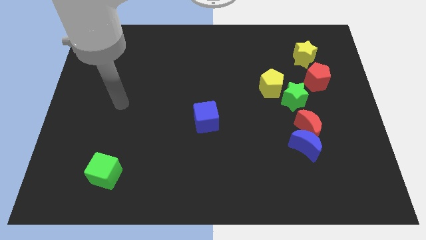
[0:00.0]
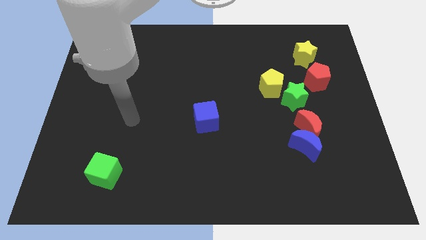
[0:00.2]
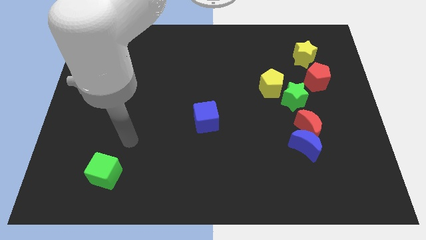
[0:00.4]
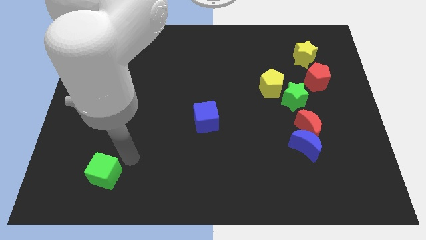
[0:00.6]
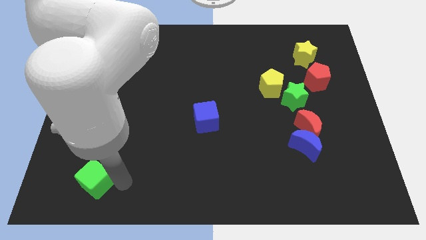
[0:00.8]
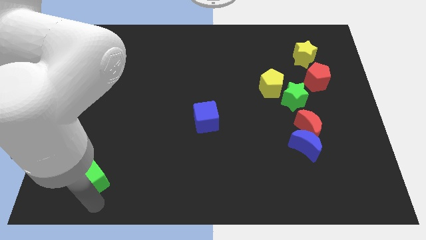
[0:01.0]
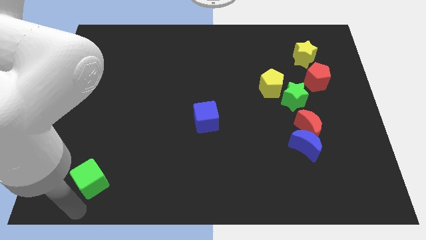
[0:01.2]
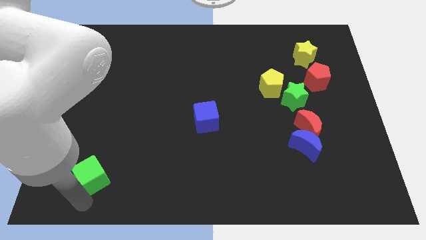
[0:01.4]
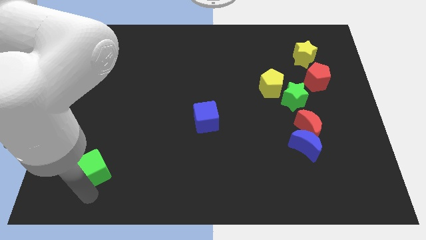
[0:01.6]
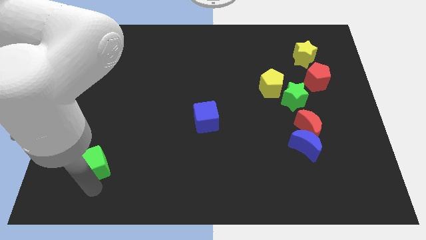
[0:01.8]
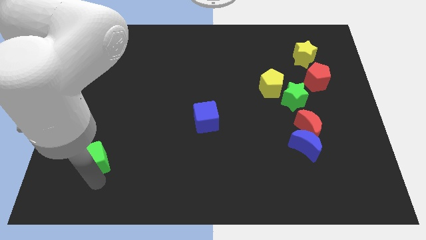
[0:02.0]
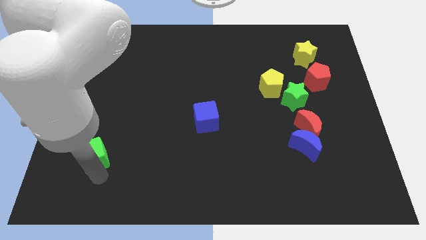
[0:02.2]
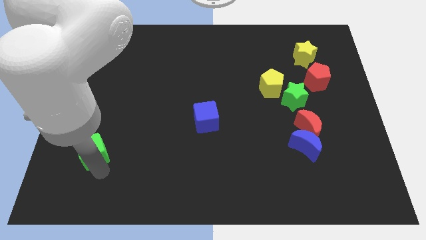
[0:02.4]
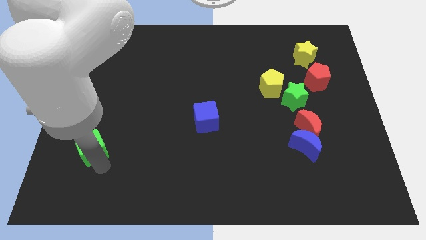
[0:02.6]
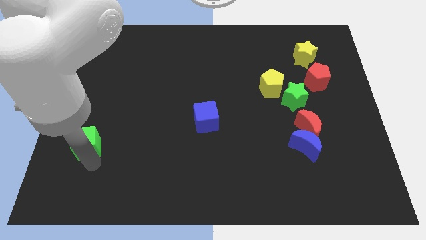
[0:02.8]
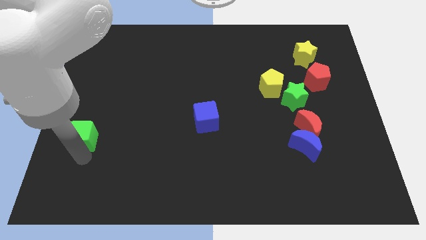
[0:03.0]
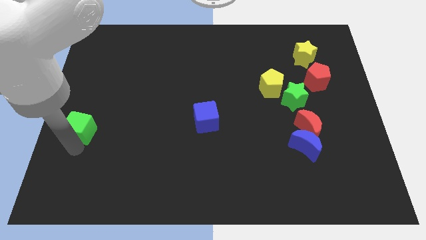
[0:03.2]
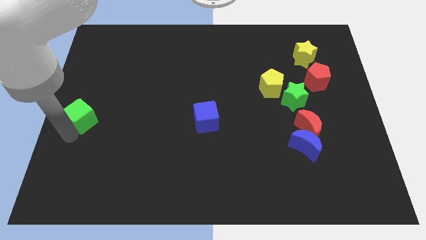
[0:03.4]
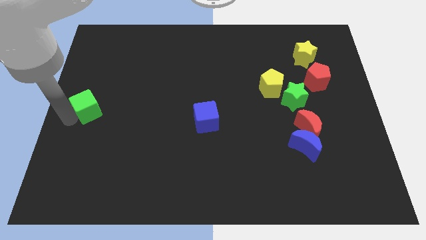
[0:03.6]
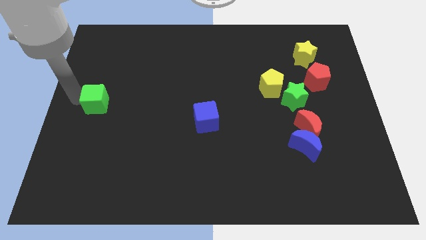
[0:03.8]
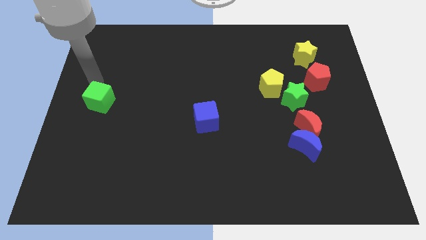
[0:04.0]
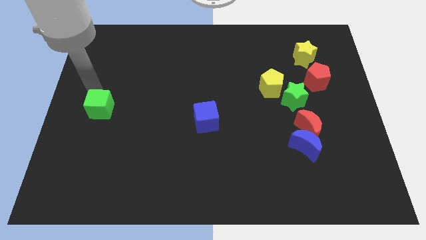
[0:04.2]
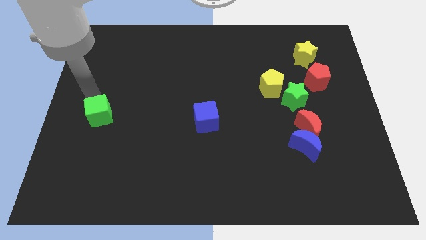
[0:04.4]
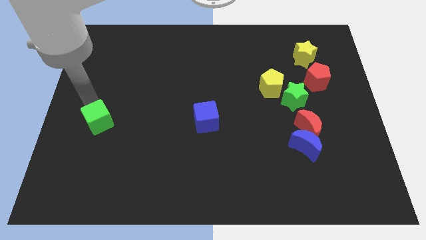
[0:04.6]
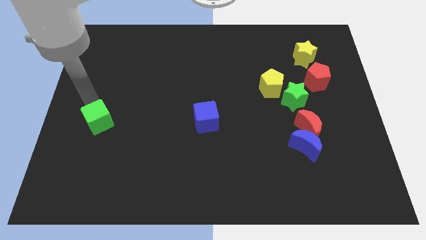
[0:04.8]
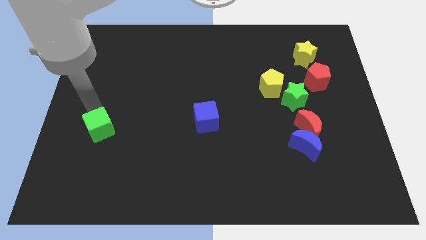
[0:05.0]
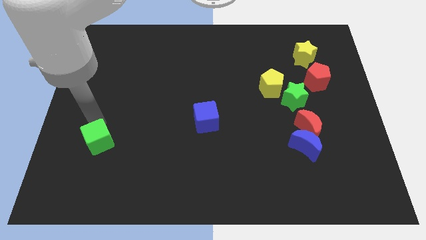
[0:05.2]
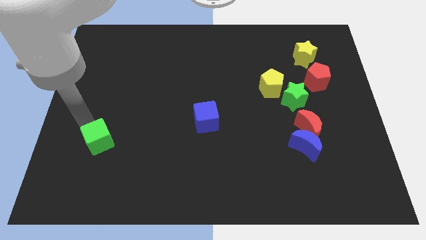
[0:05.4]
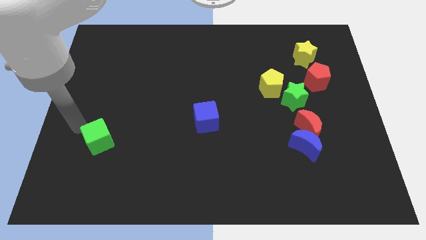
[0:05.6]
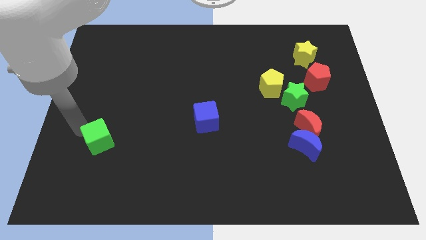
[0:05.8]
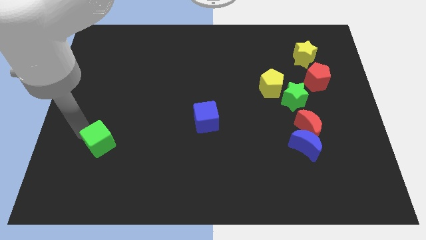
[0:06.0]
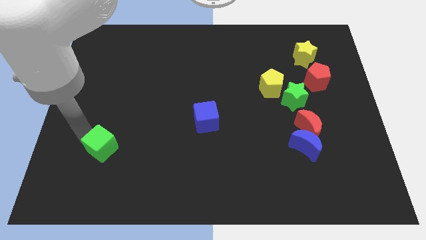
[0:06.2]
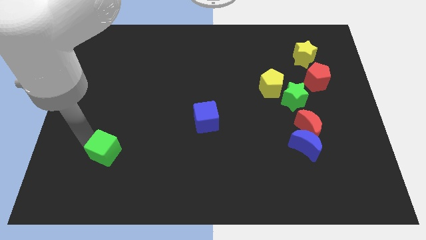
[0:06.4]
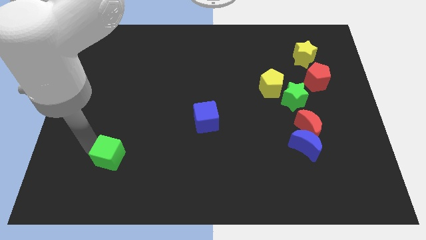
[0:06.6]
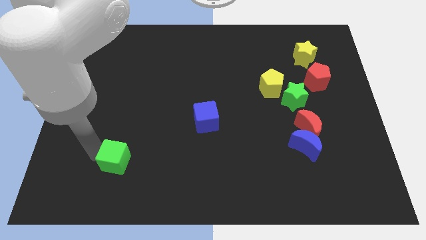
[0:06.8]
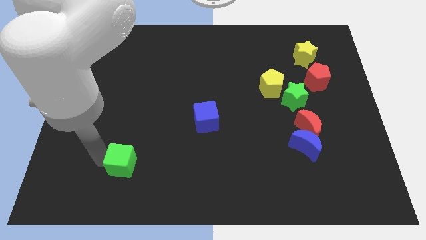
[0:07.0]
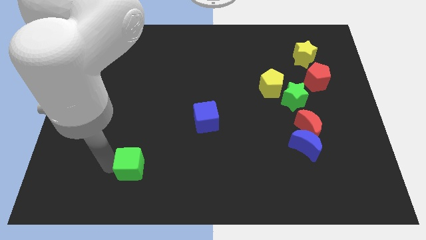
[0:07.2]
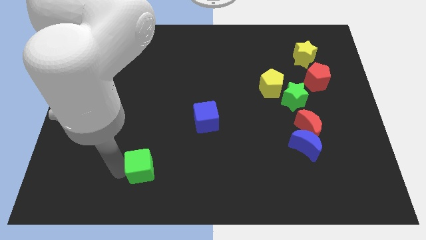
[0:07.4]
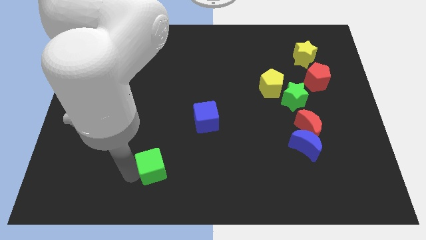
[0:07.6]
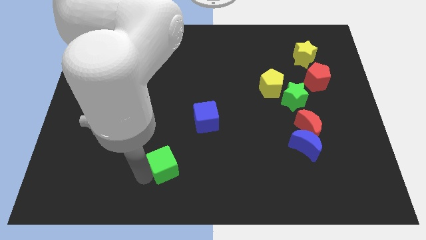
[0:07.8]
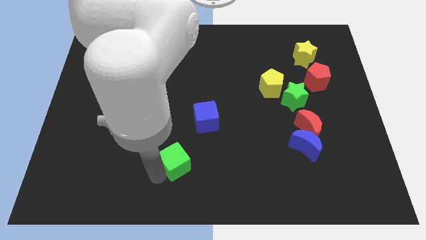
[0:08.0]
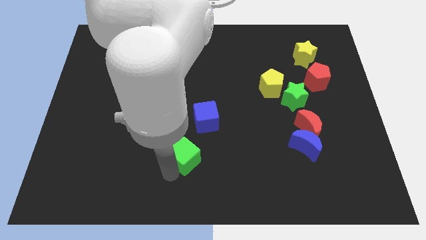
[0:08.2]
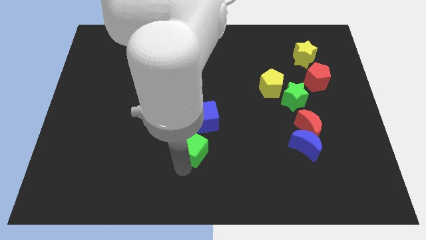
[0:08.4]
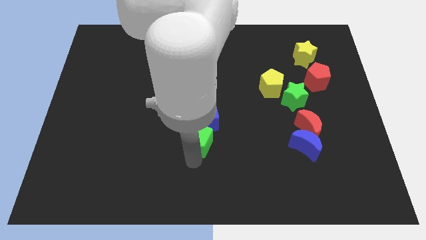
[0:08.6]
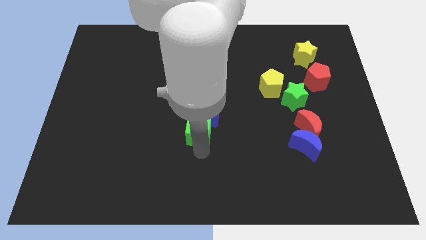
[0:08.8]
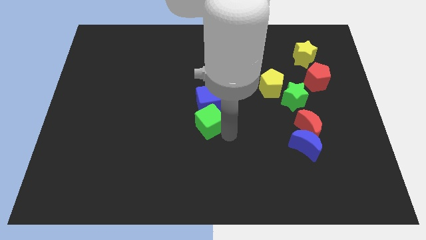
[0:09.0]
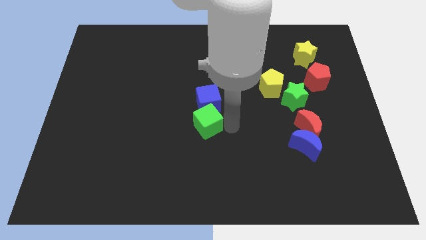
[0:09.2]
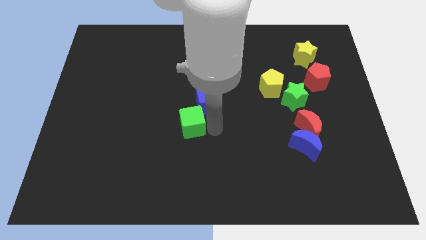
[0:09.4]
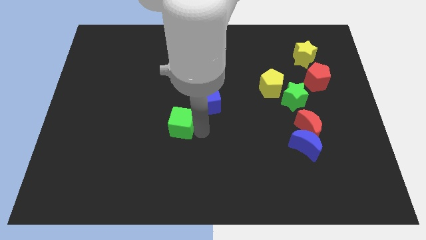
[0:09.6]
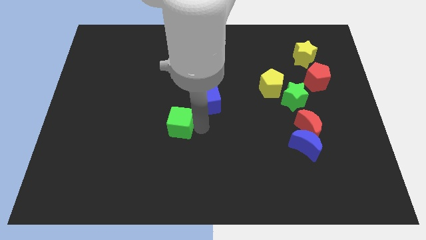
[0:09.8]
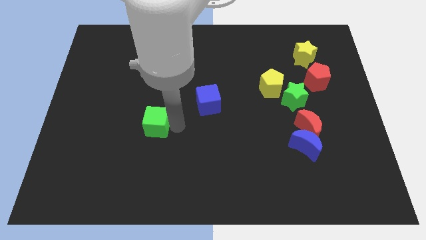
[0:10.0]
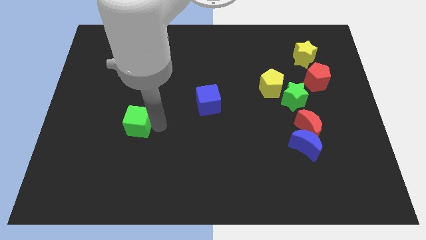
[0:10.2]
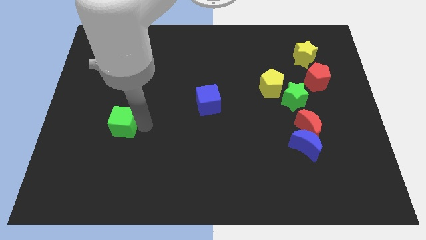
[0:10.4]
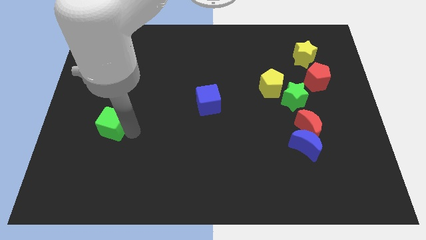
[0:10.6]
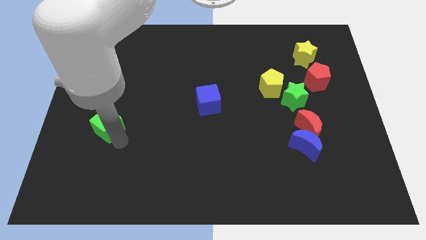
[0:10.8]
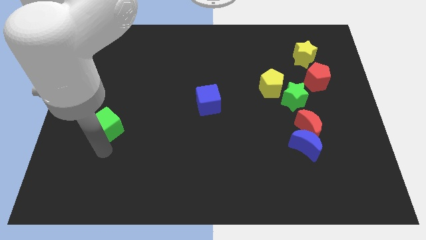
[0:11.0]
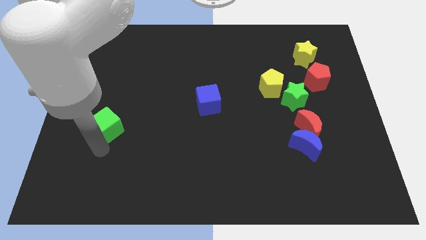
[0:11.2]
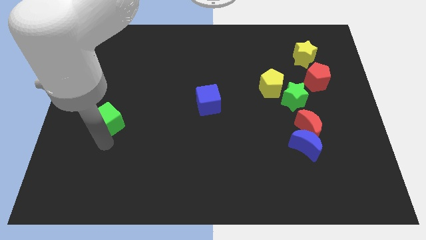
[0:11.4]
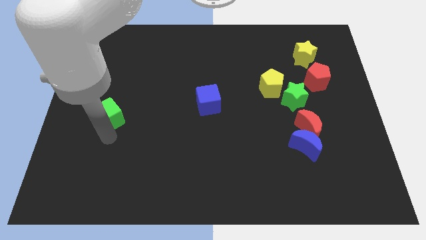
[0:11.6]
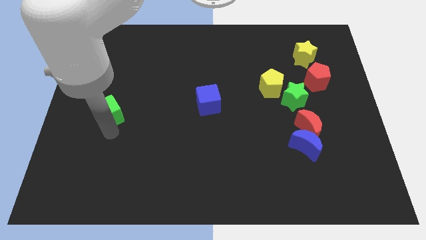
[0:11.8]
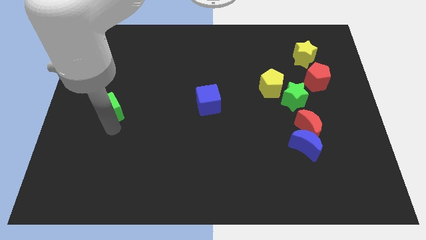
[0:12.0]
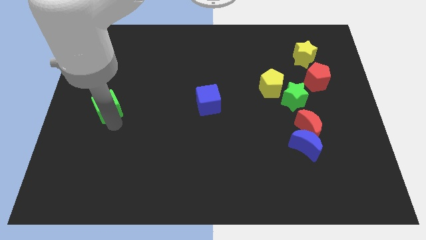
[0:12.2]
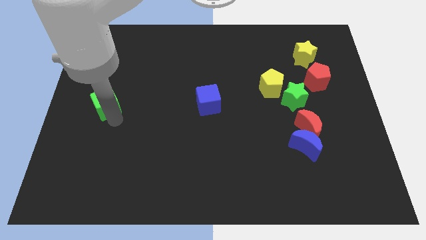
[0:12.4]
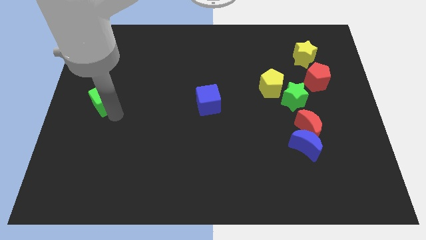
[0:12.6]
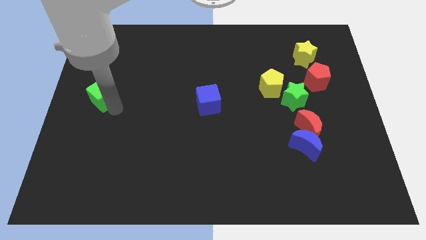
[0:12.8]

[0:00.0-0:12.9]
push the green cube up

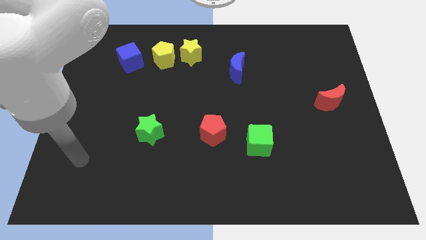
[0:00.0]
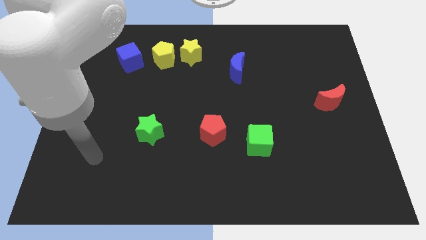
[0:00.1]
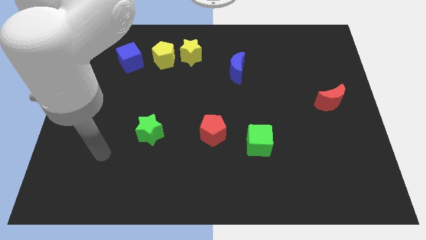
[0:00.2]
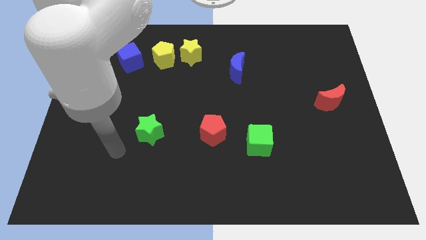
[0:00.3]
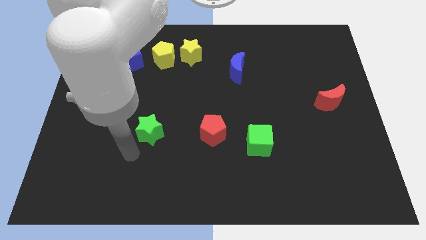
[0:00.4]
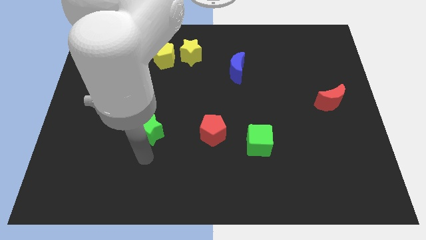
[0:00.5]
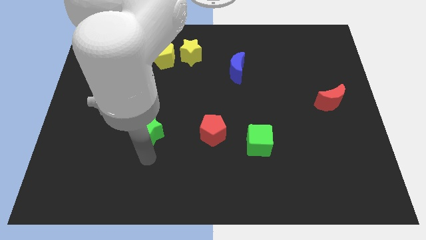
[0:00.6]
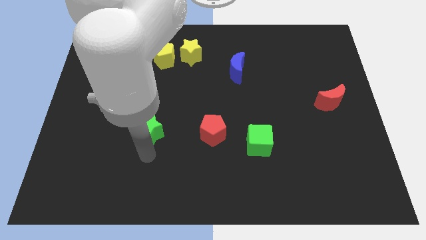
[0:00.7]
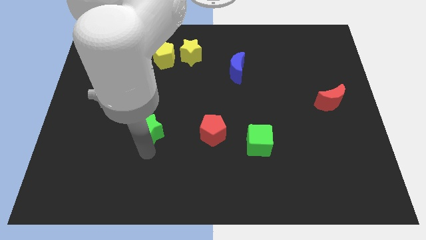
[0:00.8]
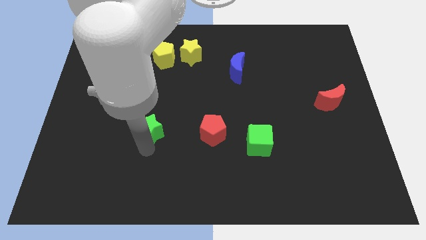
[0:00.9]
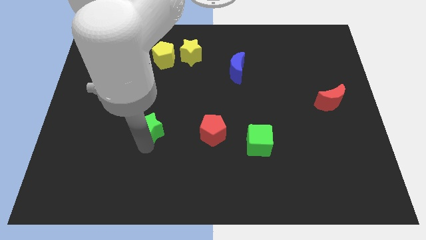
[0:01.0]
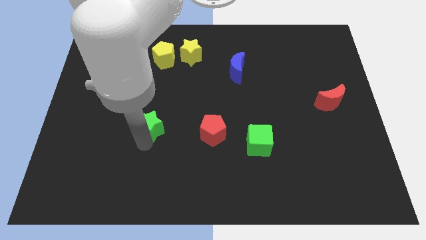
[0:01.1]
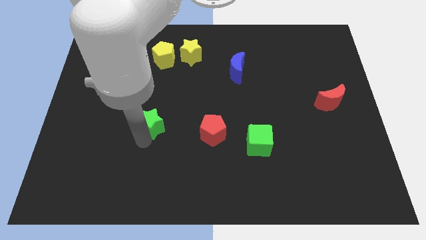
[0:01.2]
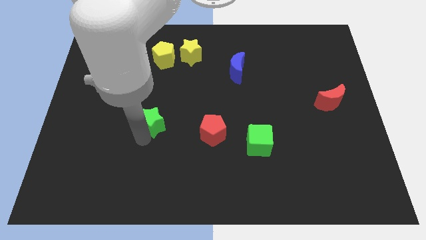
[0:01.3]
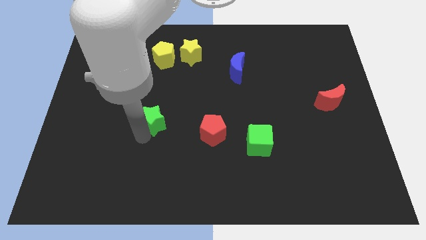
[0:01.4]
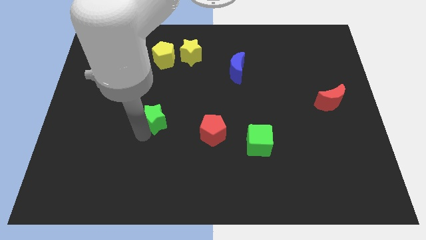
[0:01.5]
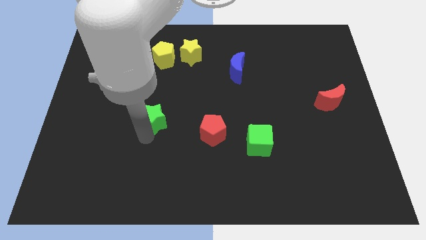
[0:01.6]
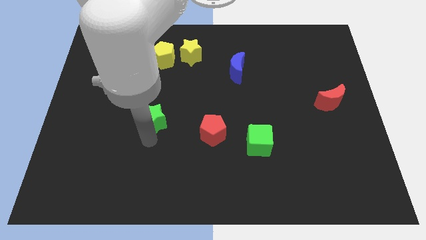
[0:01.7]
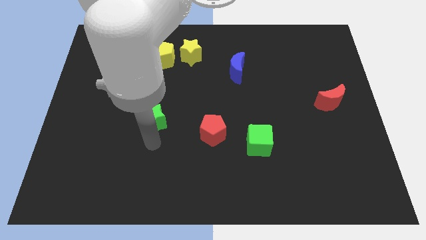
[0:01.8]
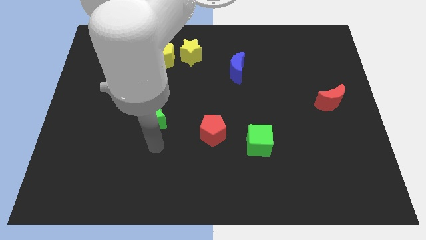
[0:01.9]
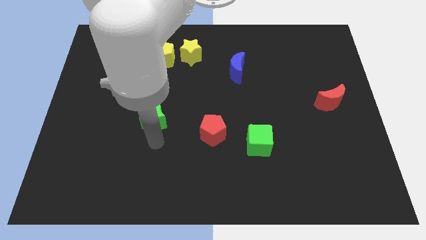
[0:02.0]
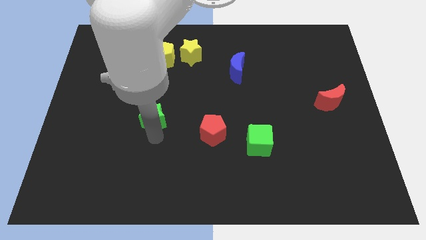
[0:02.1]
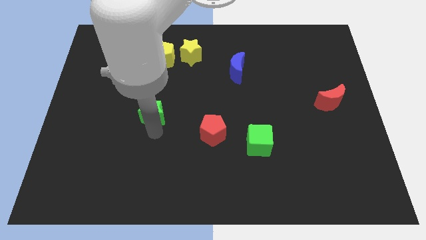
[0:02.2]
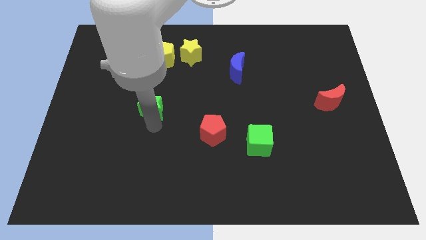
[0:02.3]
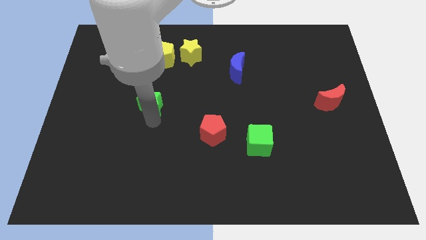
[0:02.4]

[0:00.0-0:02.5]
slide the green star a little bit upwards
